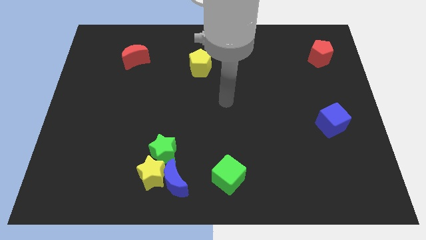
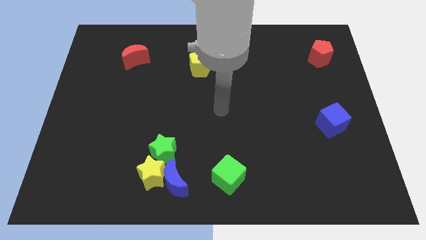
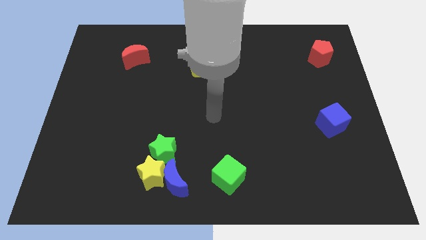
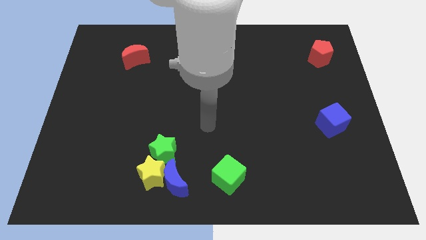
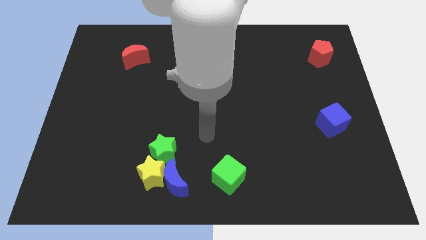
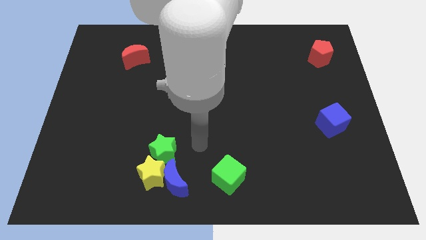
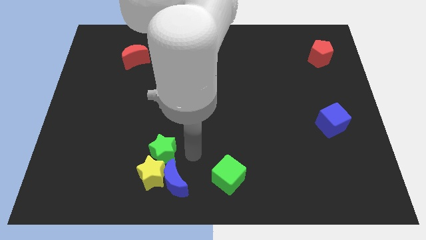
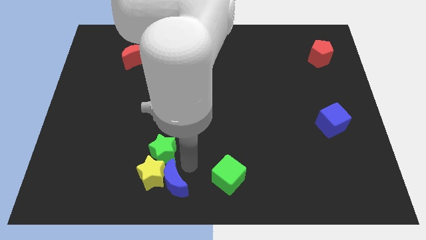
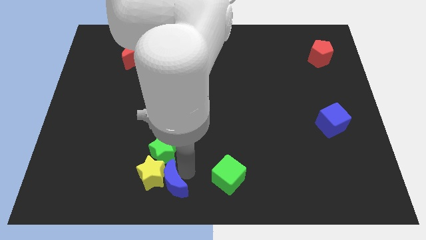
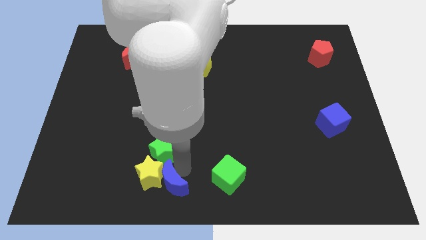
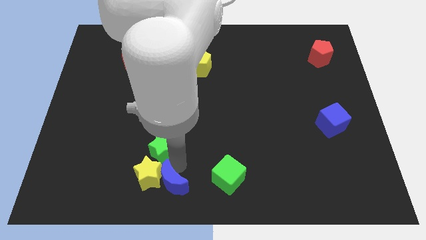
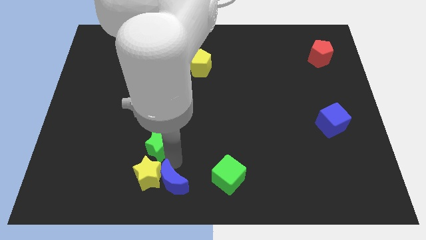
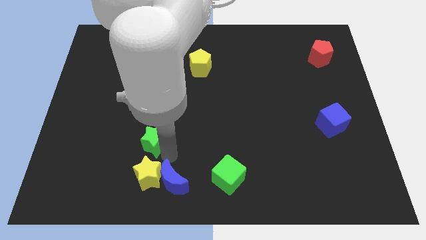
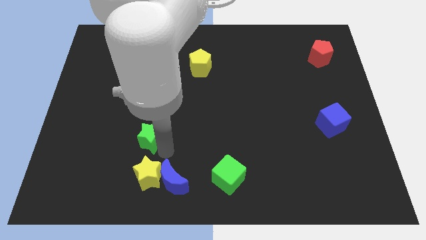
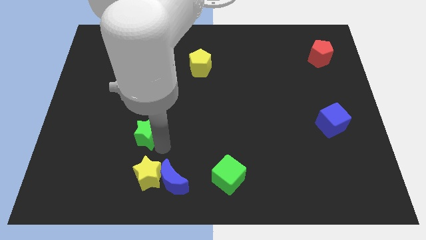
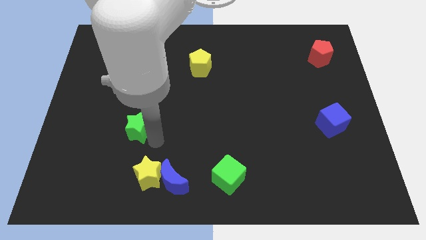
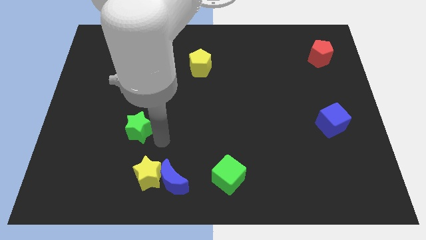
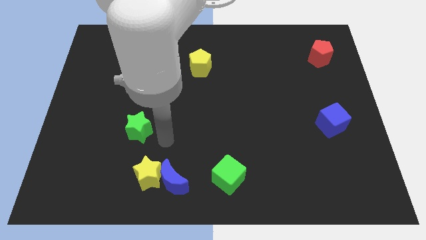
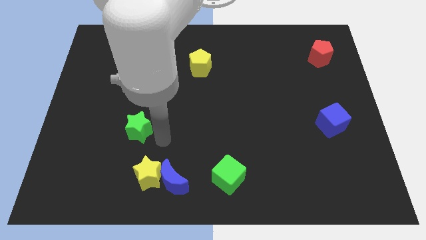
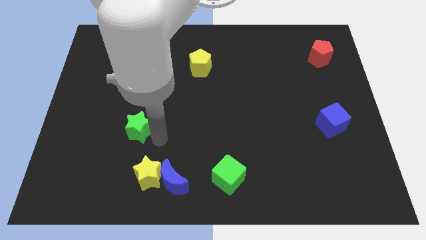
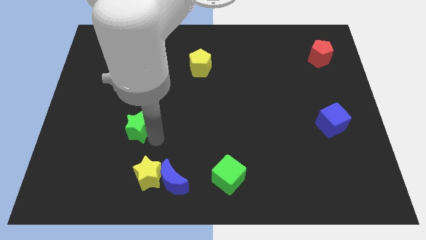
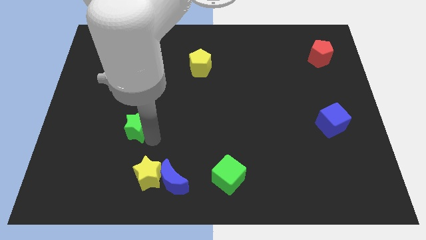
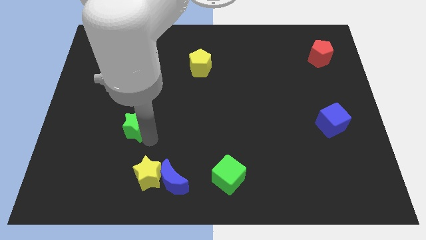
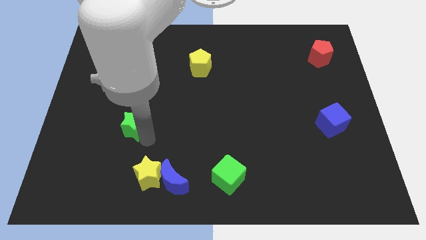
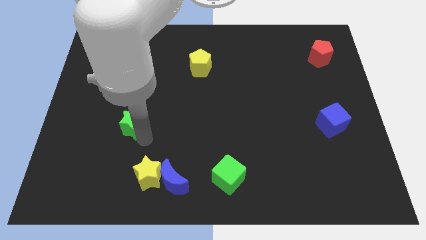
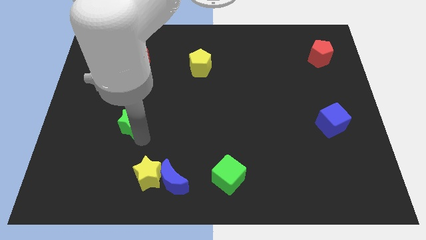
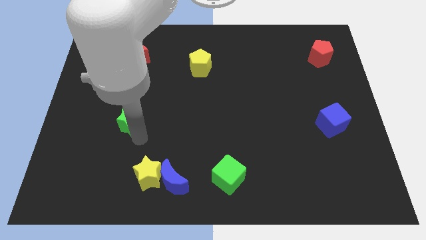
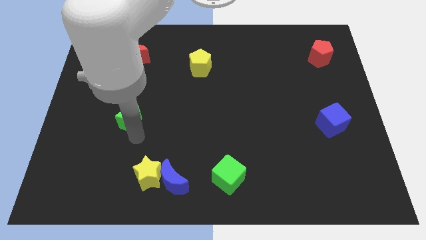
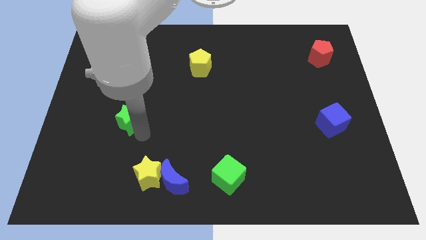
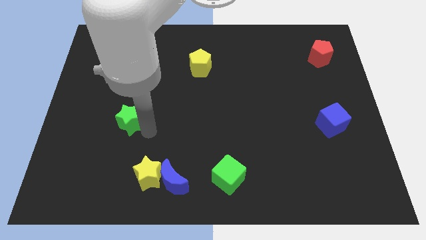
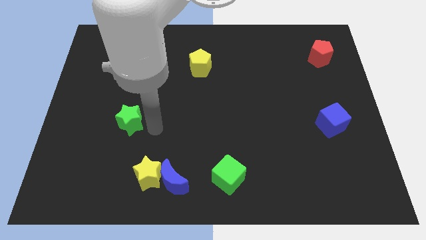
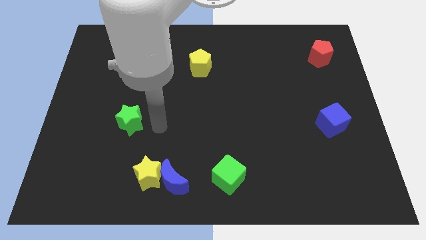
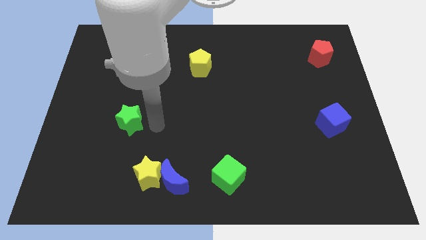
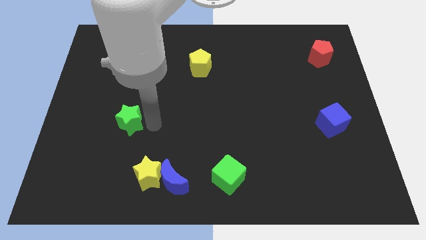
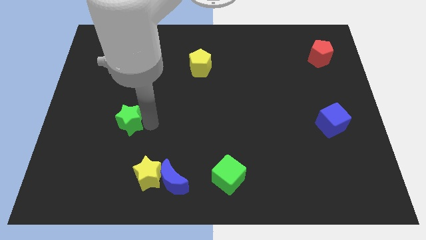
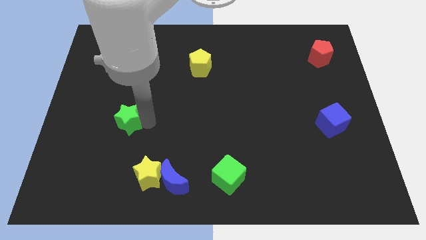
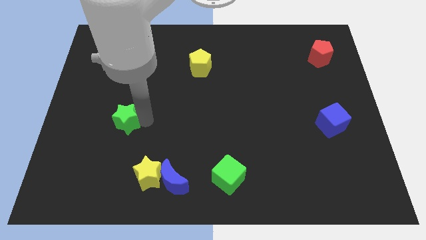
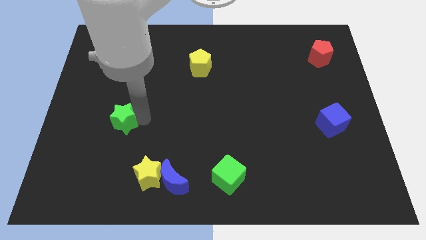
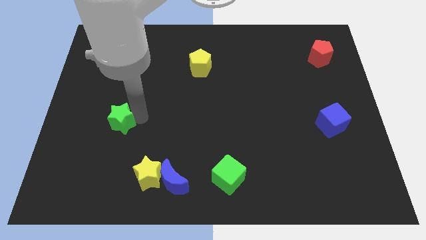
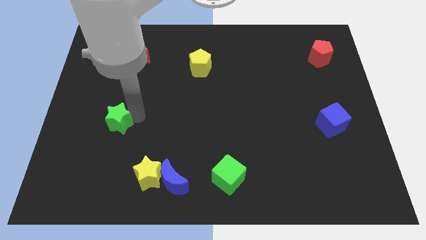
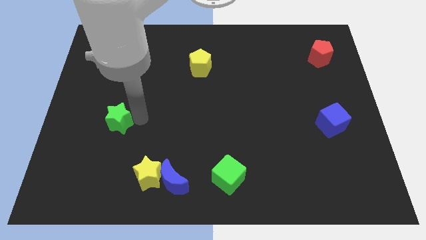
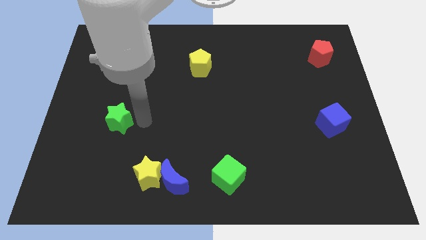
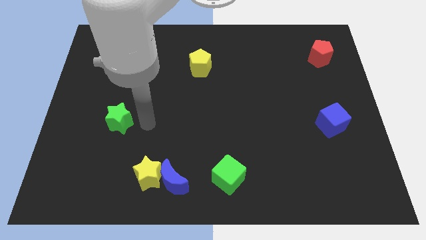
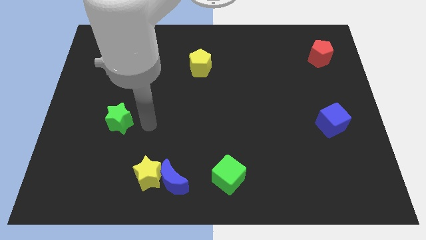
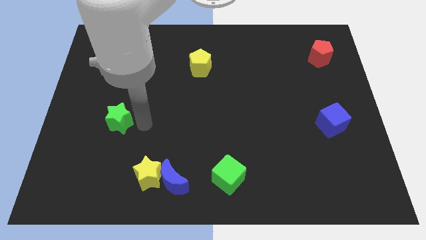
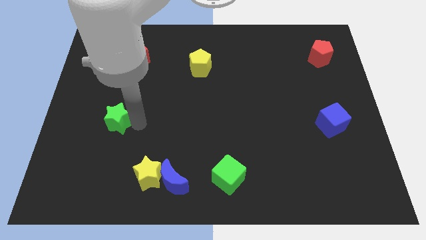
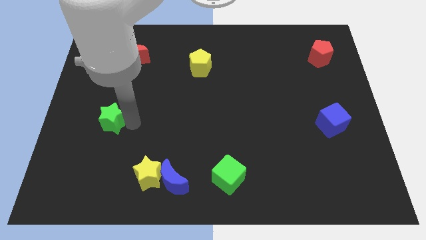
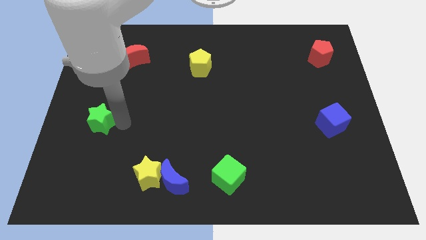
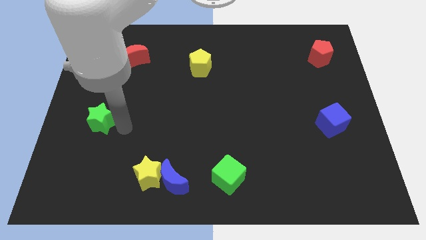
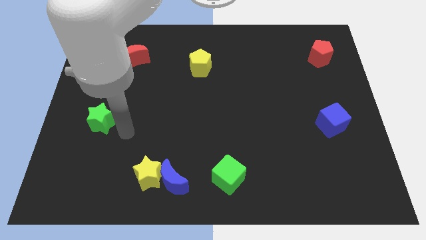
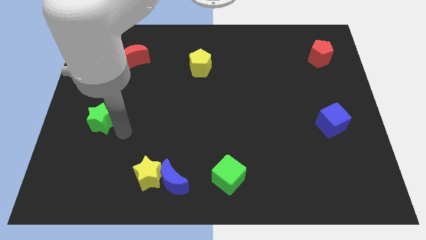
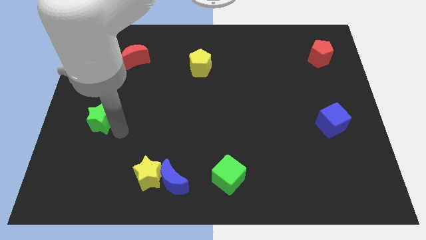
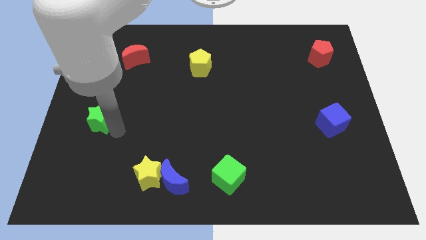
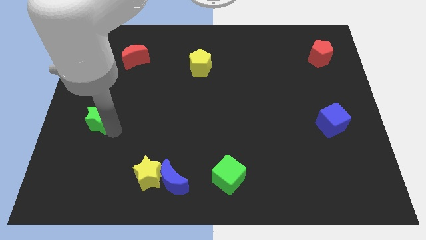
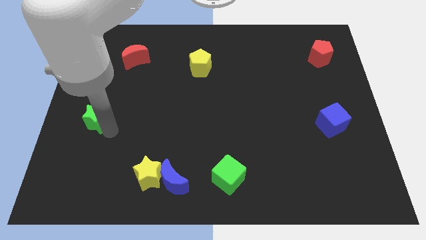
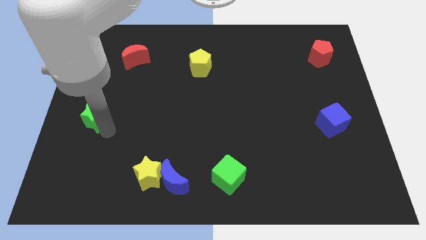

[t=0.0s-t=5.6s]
slide the green star to the left side of the board

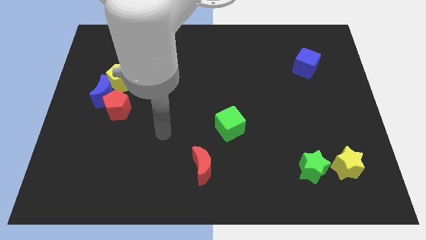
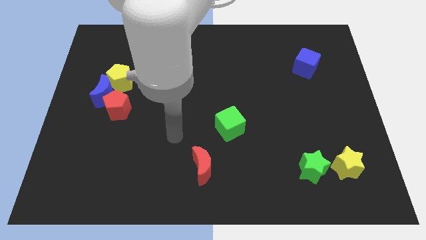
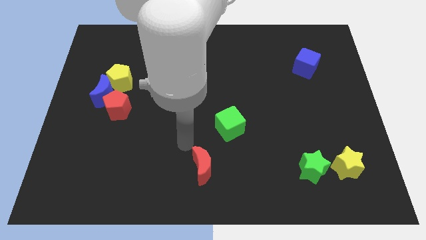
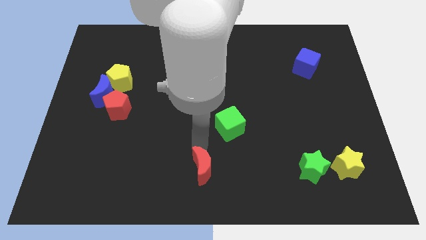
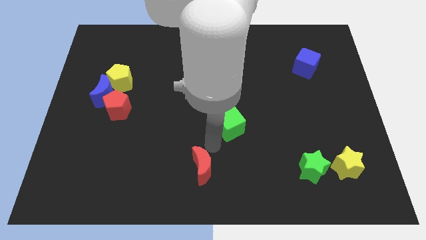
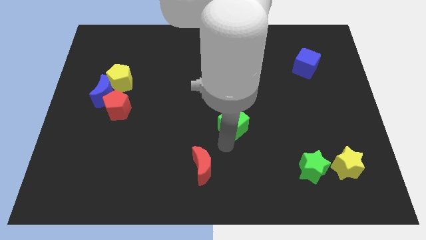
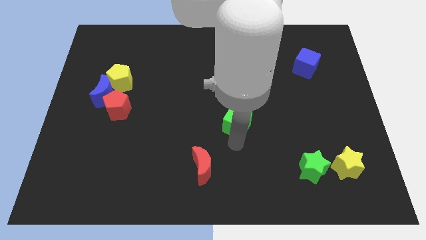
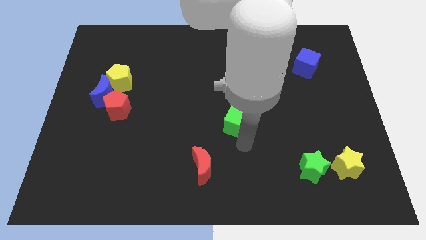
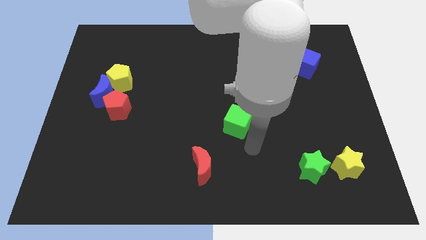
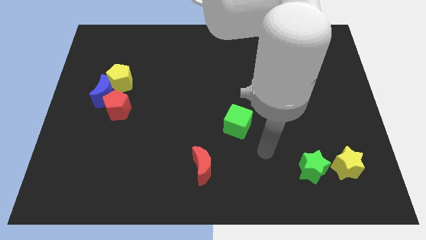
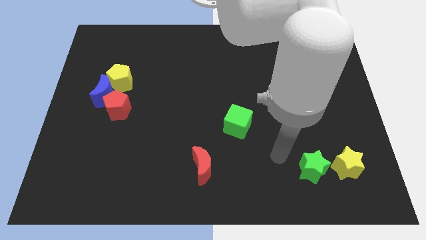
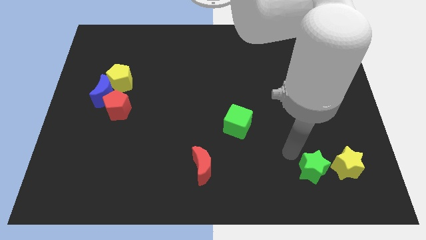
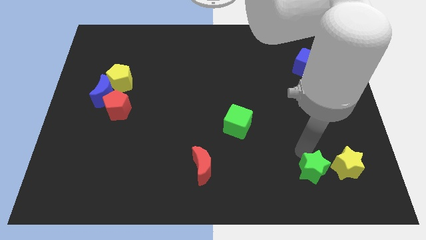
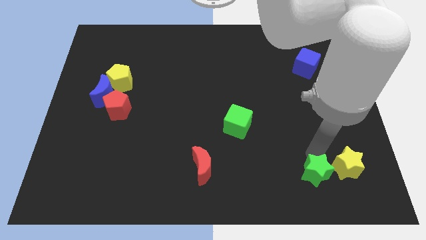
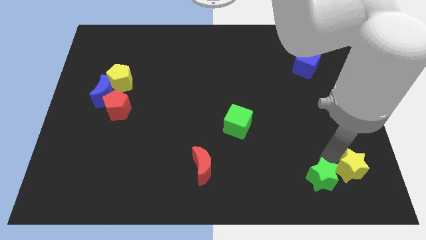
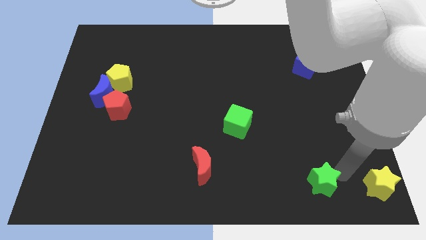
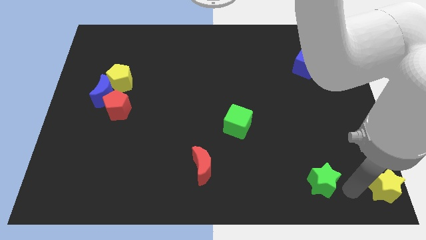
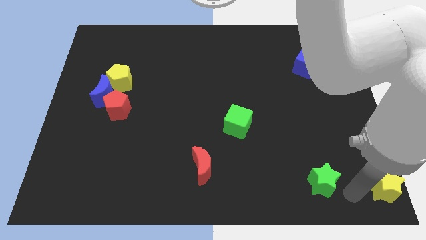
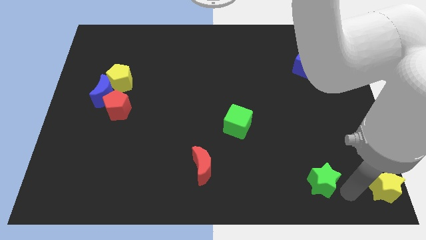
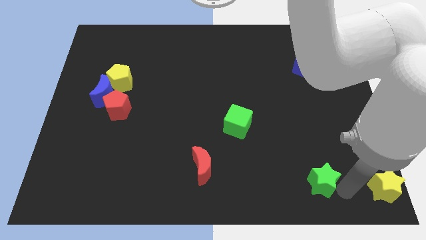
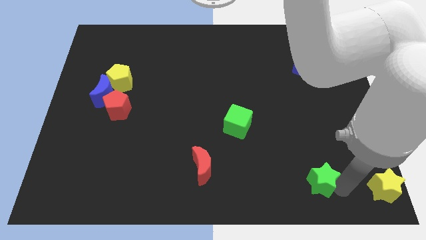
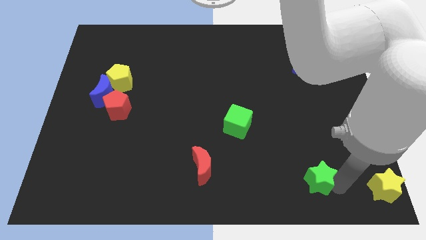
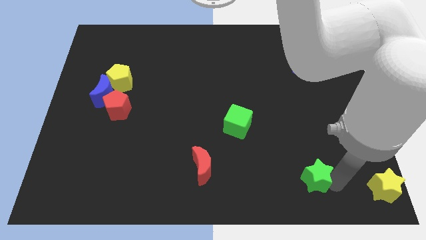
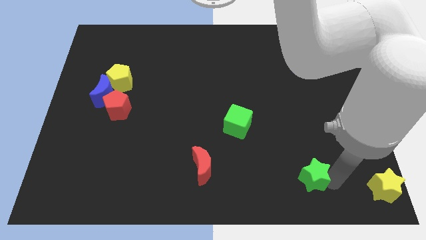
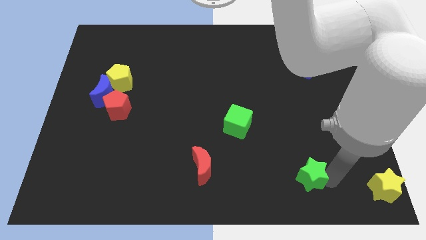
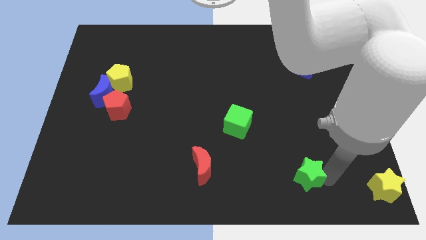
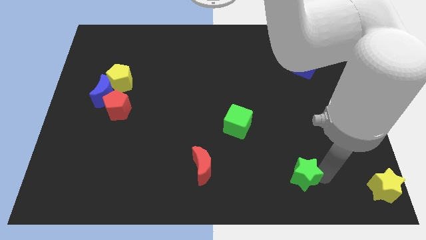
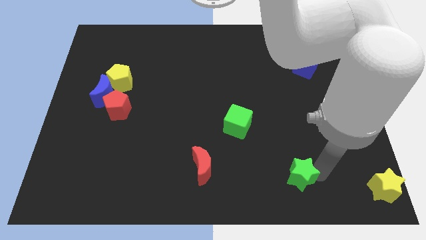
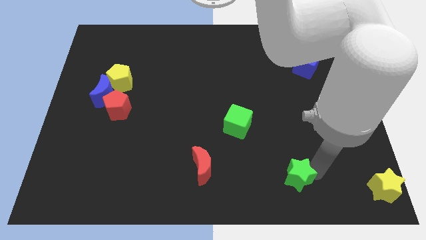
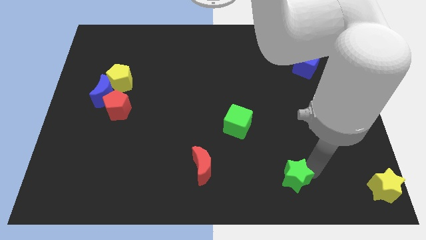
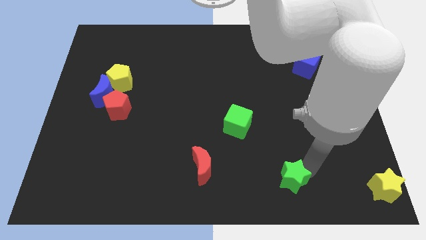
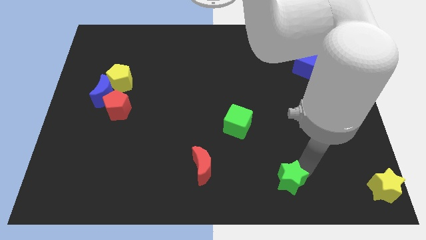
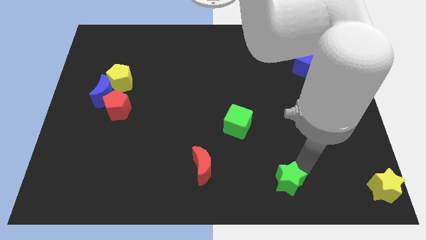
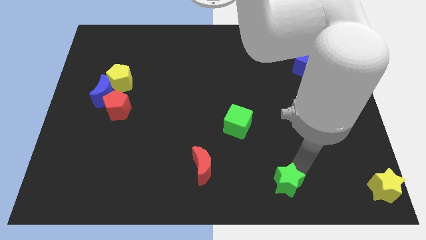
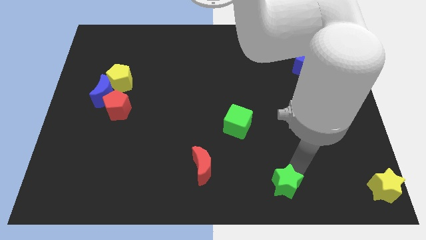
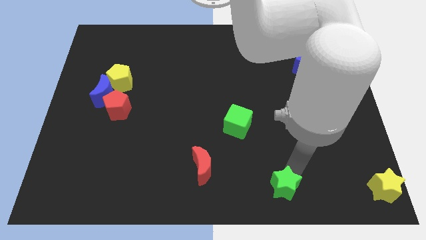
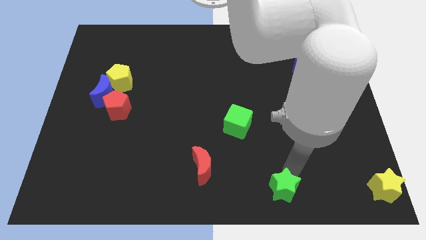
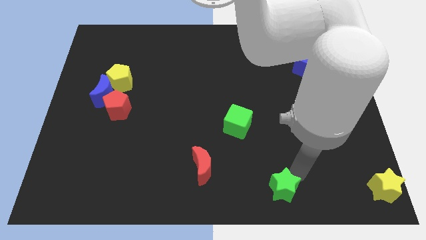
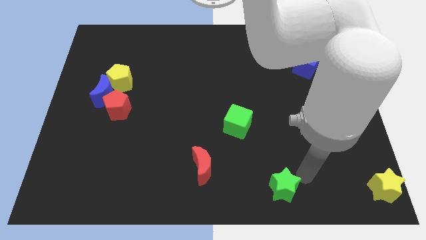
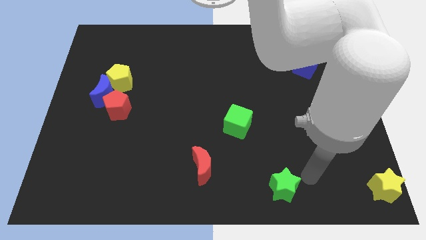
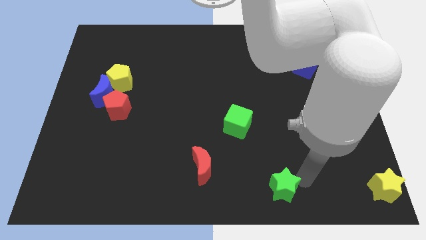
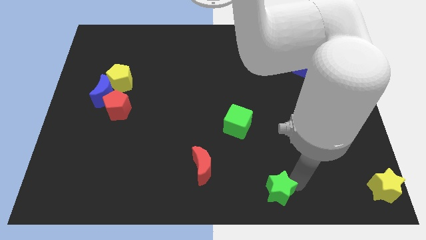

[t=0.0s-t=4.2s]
put the green star to the bottom
